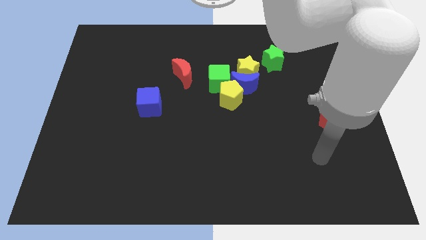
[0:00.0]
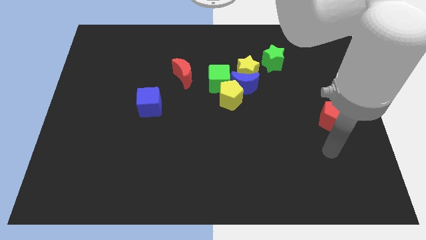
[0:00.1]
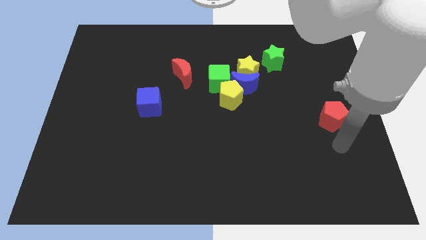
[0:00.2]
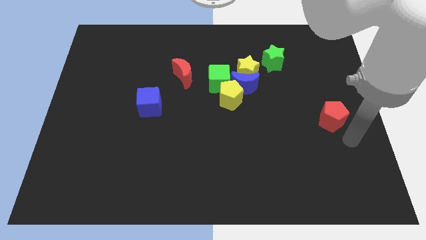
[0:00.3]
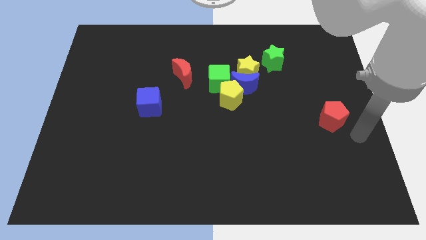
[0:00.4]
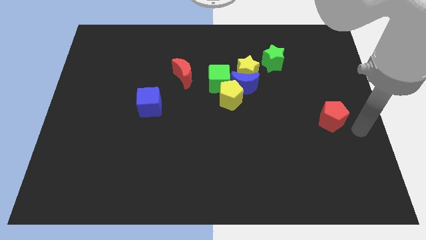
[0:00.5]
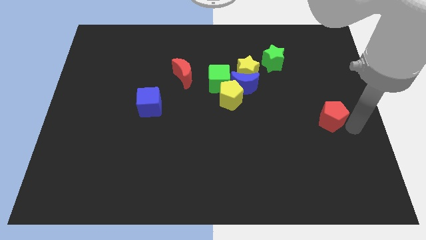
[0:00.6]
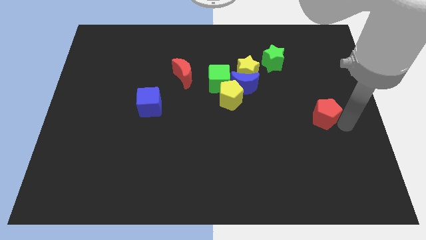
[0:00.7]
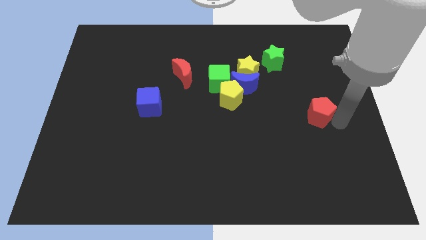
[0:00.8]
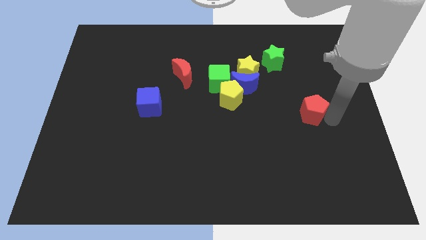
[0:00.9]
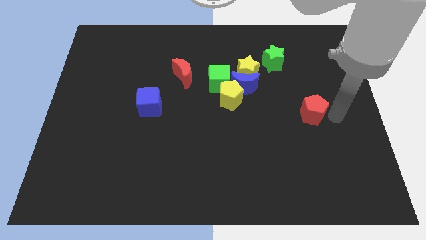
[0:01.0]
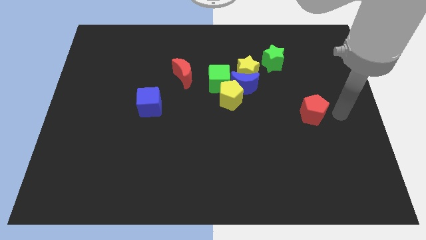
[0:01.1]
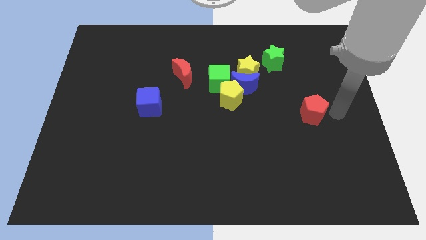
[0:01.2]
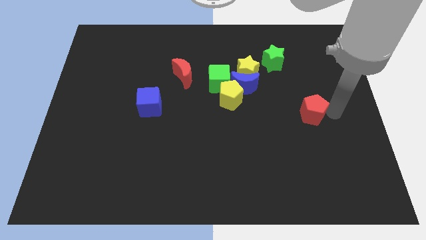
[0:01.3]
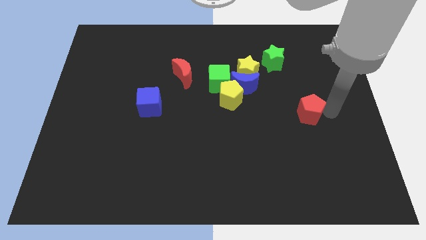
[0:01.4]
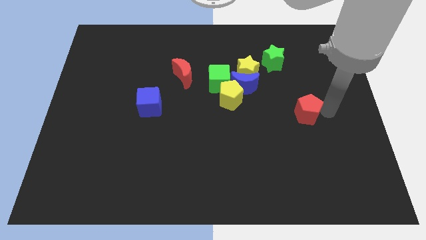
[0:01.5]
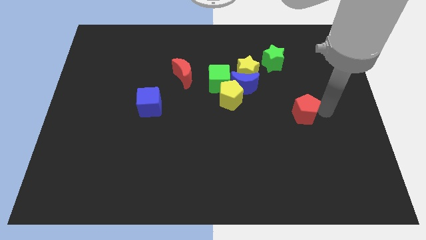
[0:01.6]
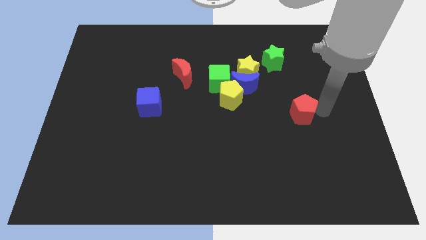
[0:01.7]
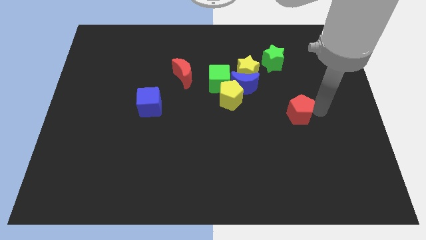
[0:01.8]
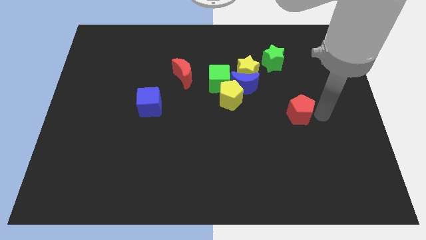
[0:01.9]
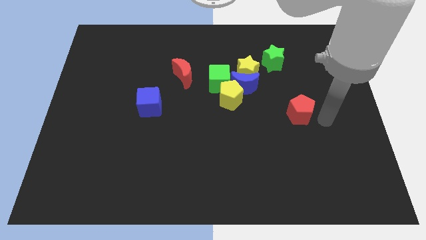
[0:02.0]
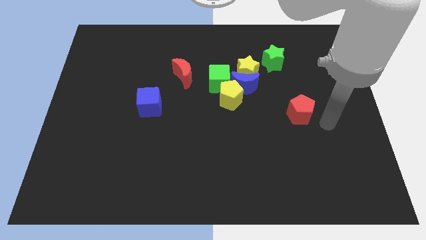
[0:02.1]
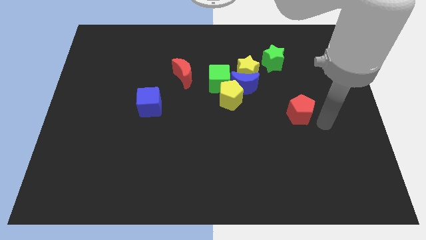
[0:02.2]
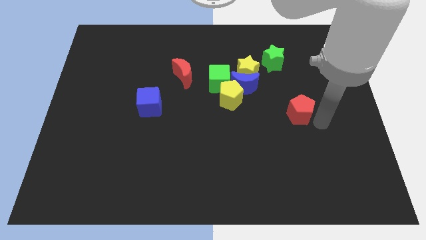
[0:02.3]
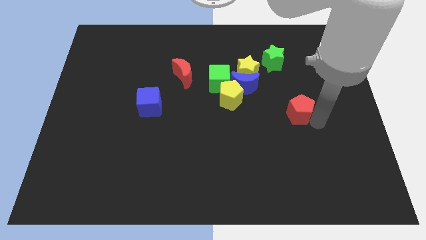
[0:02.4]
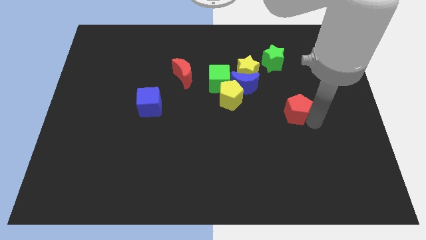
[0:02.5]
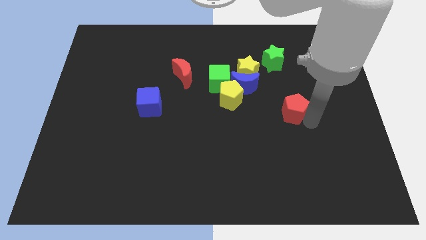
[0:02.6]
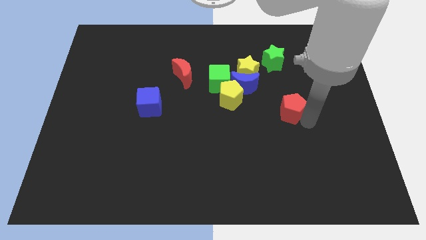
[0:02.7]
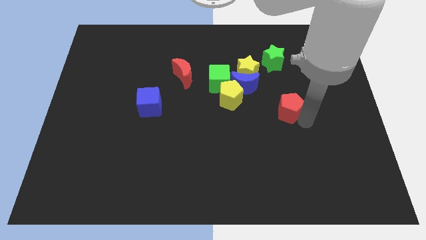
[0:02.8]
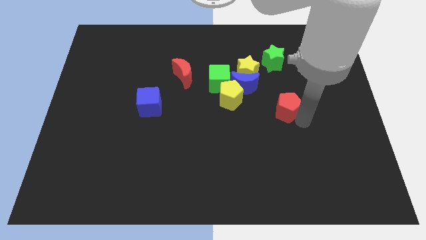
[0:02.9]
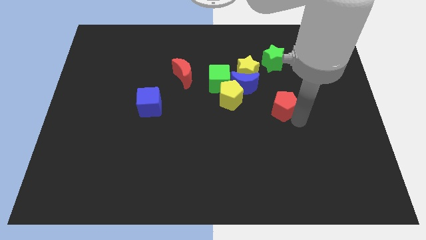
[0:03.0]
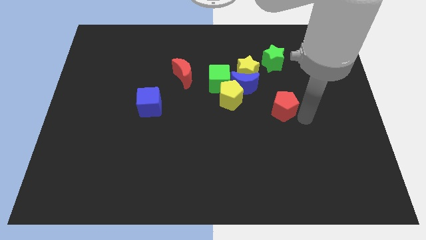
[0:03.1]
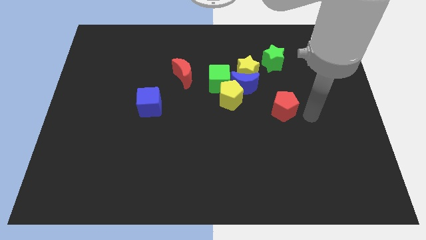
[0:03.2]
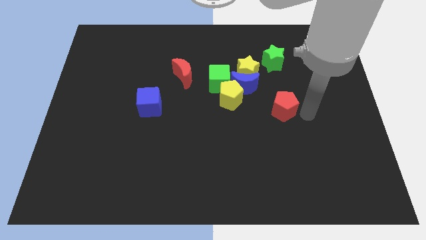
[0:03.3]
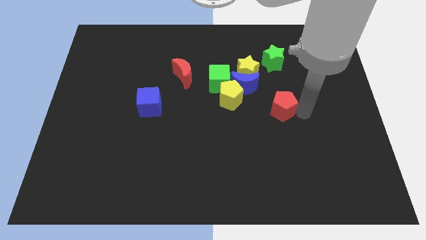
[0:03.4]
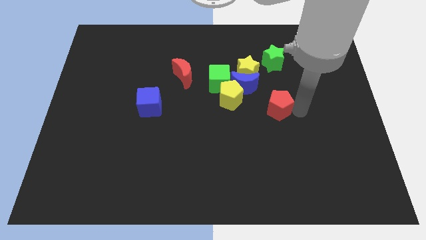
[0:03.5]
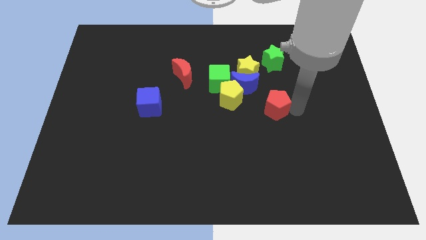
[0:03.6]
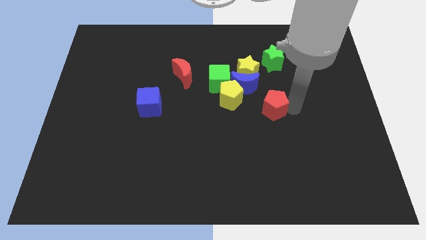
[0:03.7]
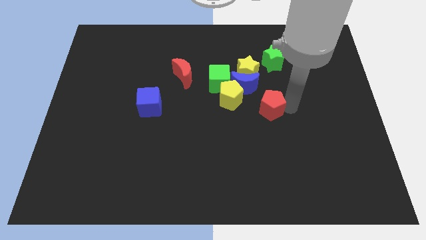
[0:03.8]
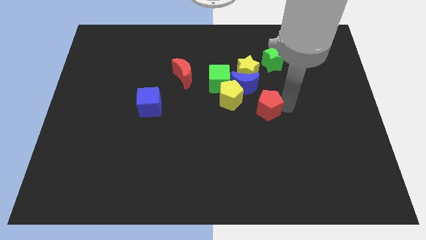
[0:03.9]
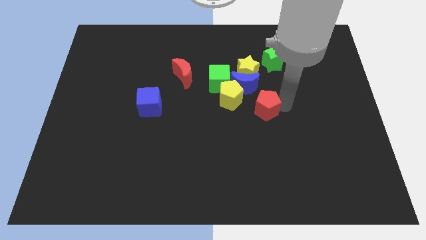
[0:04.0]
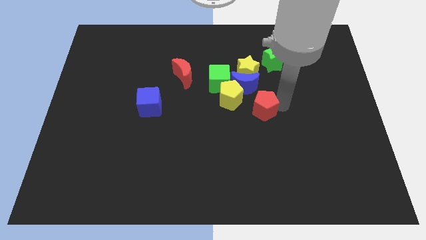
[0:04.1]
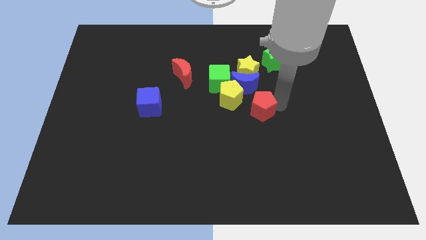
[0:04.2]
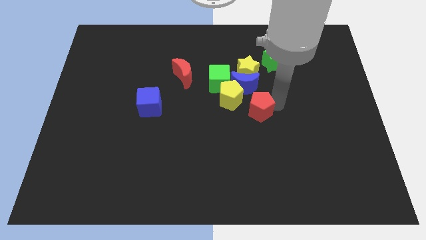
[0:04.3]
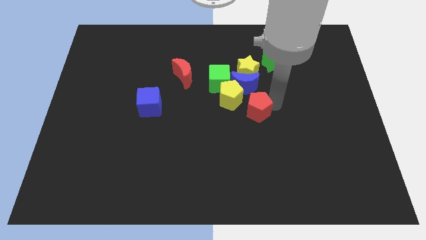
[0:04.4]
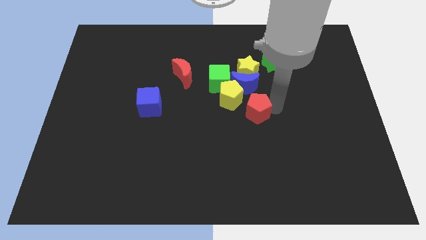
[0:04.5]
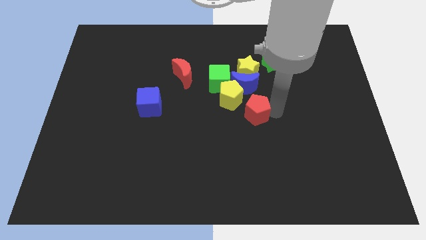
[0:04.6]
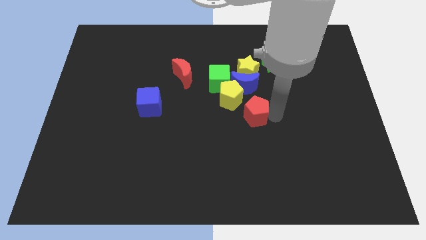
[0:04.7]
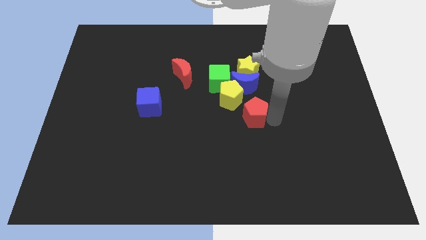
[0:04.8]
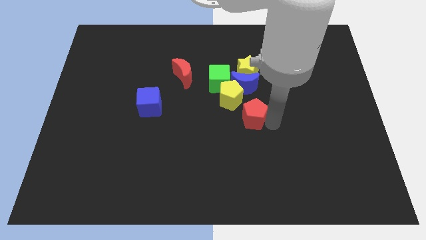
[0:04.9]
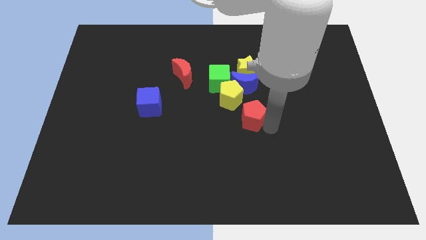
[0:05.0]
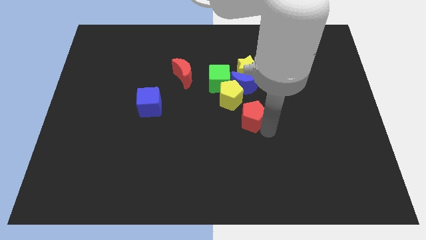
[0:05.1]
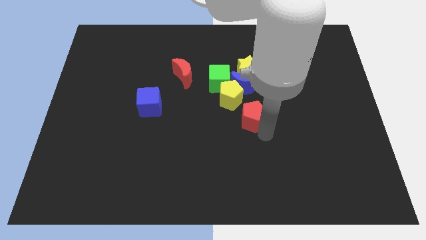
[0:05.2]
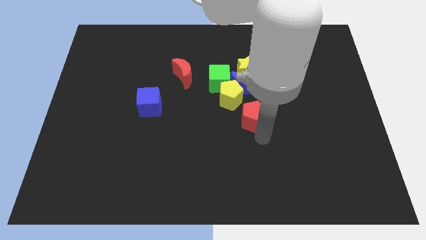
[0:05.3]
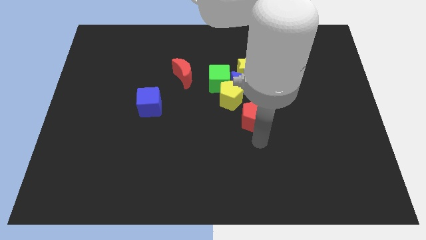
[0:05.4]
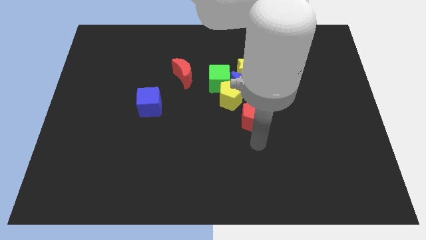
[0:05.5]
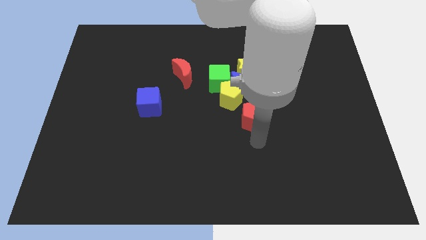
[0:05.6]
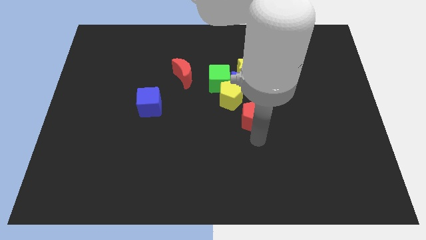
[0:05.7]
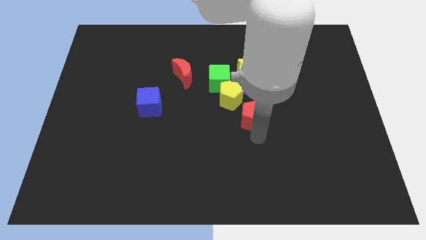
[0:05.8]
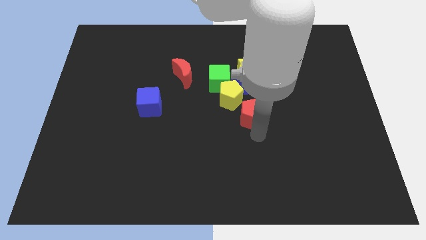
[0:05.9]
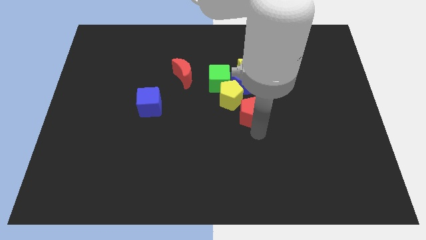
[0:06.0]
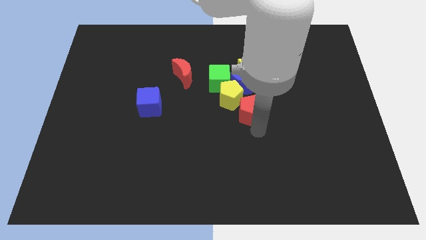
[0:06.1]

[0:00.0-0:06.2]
slide the red pentagon next to the yellow pentagon

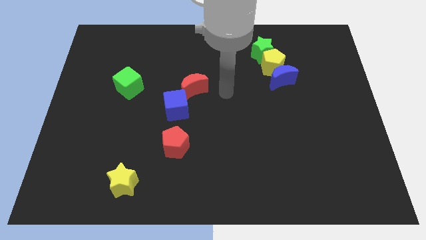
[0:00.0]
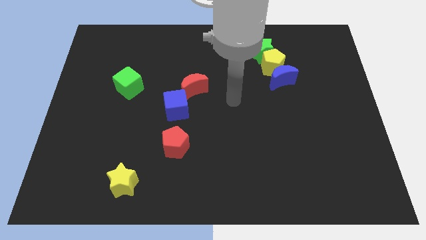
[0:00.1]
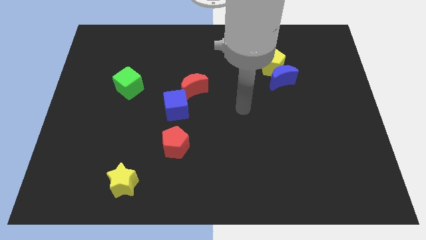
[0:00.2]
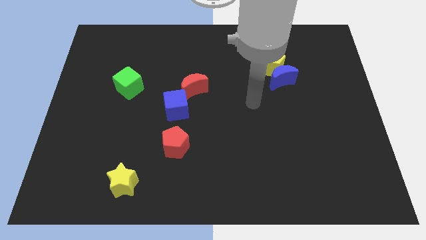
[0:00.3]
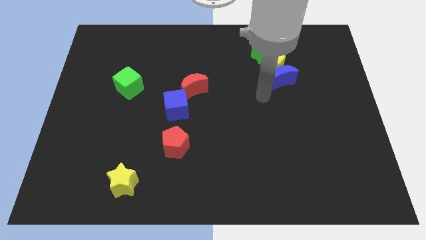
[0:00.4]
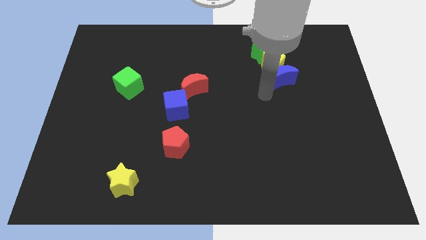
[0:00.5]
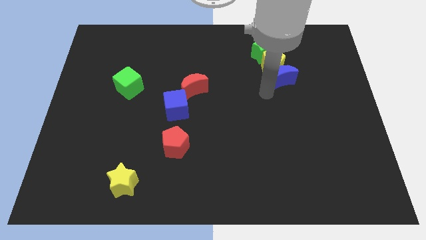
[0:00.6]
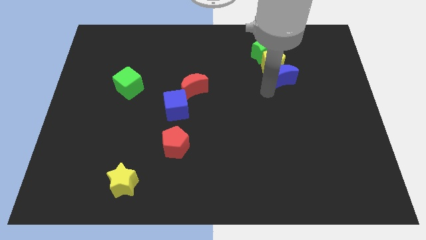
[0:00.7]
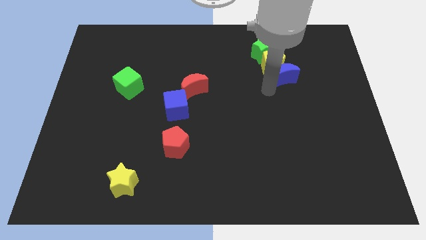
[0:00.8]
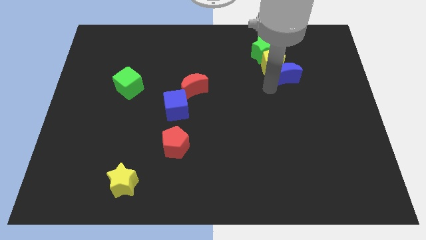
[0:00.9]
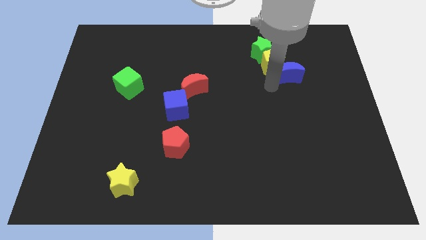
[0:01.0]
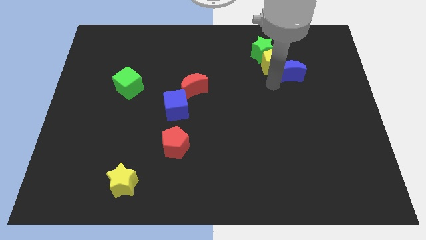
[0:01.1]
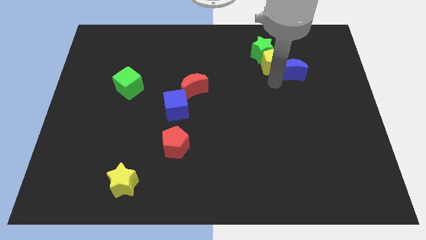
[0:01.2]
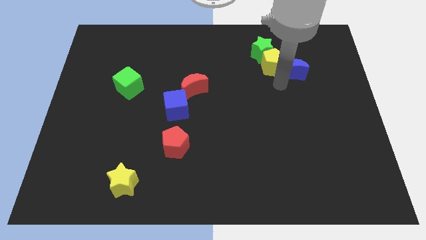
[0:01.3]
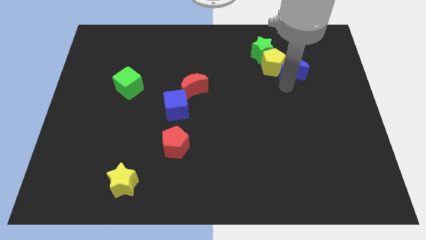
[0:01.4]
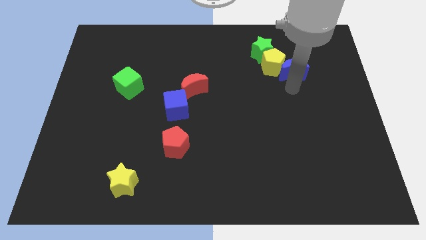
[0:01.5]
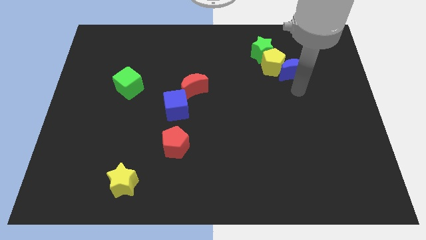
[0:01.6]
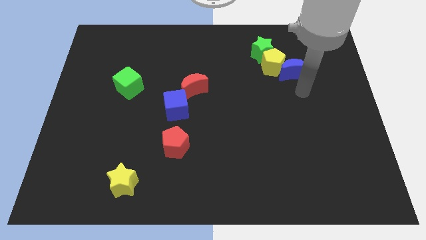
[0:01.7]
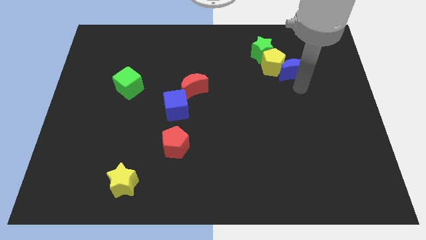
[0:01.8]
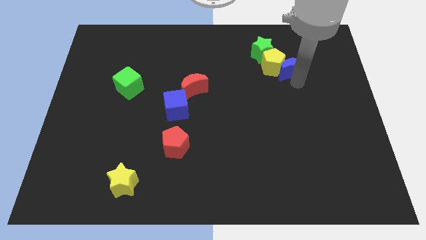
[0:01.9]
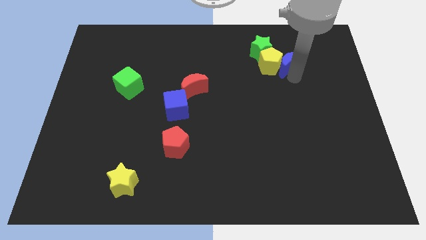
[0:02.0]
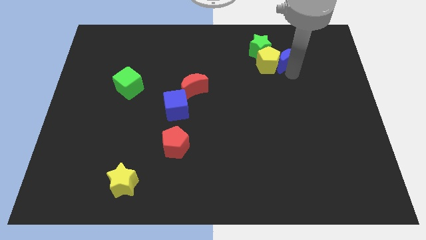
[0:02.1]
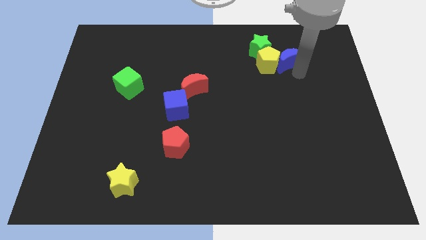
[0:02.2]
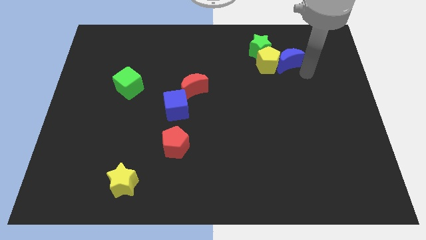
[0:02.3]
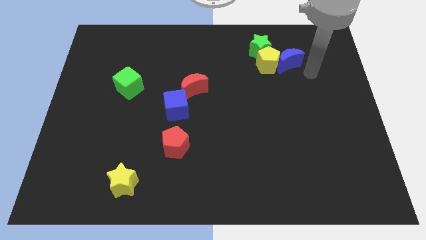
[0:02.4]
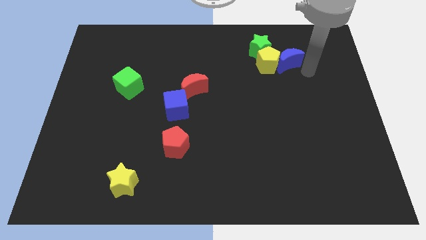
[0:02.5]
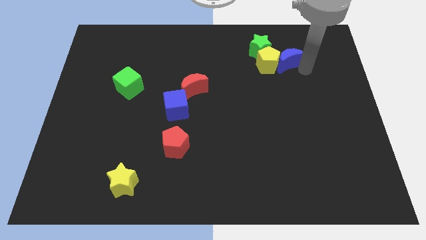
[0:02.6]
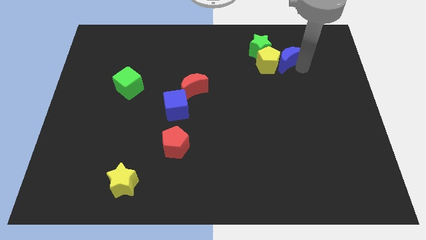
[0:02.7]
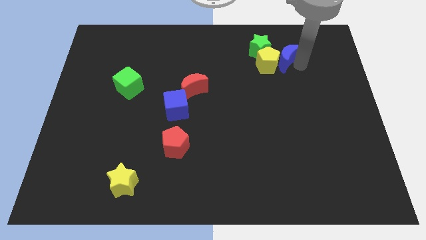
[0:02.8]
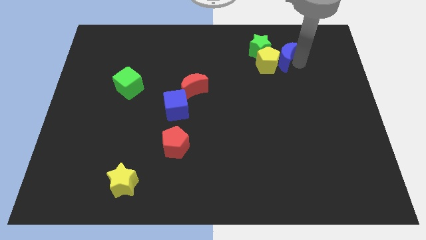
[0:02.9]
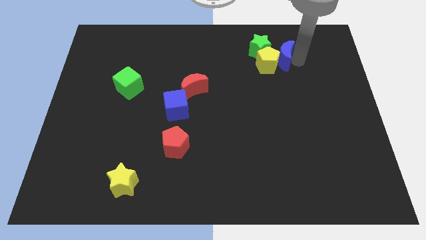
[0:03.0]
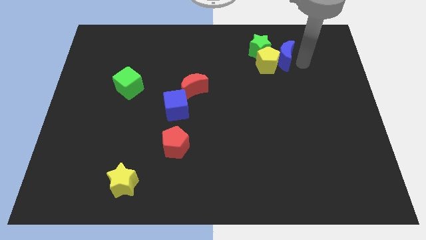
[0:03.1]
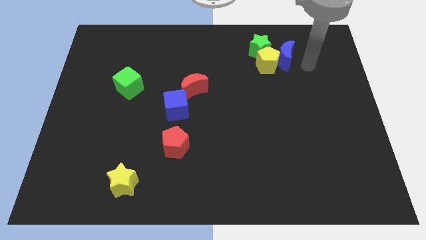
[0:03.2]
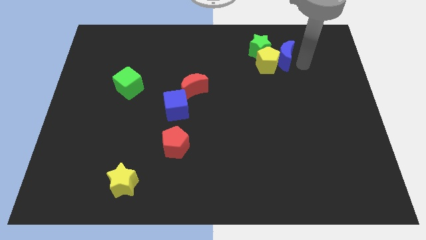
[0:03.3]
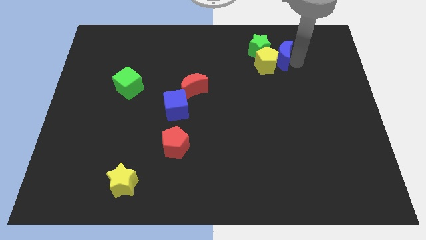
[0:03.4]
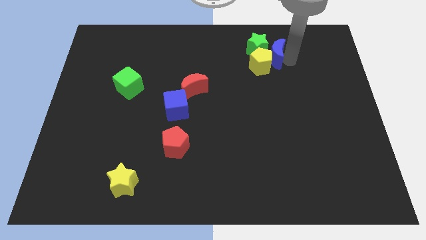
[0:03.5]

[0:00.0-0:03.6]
push the blue moon to the green star
